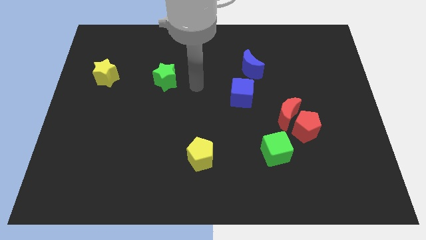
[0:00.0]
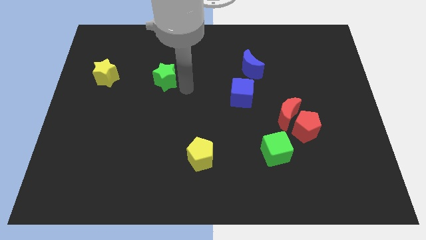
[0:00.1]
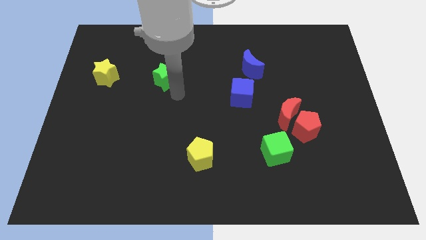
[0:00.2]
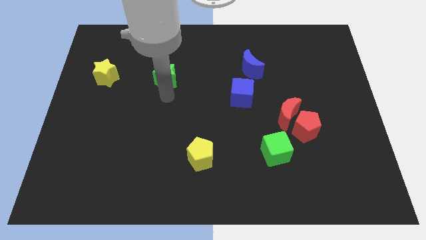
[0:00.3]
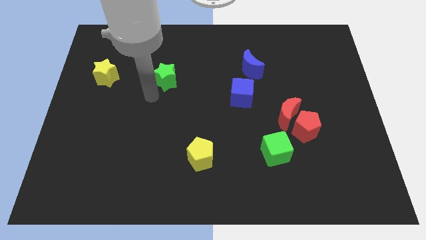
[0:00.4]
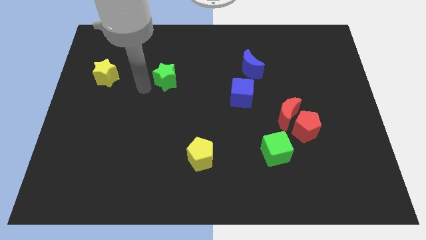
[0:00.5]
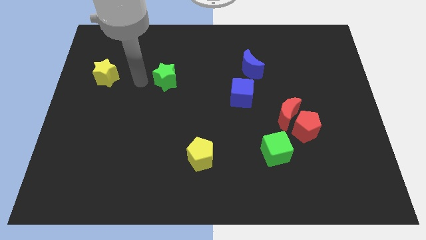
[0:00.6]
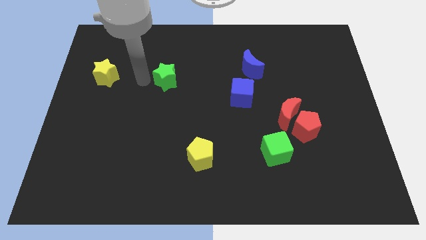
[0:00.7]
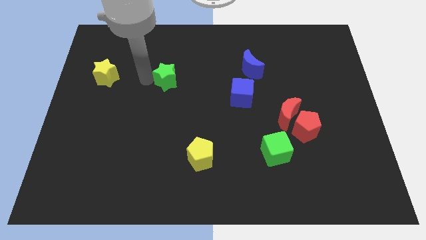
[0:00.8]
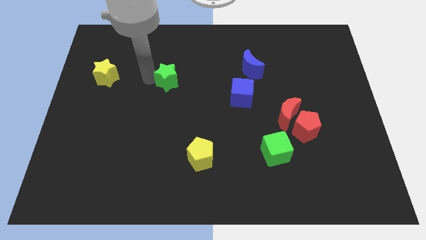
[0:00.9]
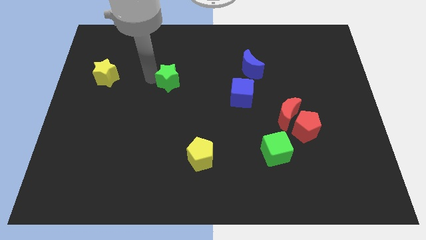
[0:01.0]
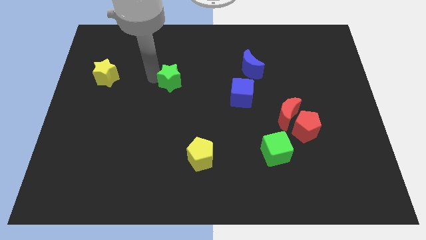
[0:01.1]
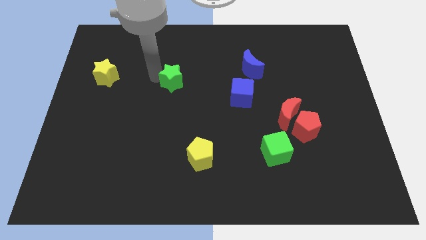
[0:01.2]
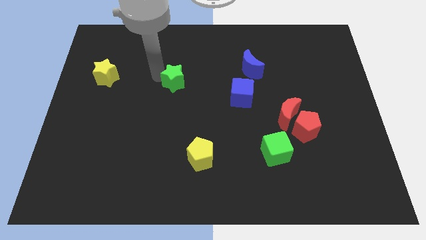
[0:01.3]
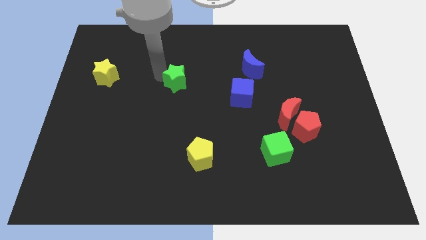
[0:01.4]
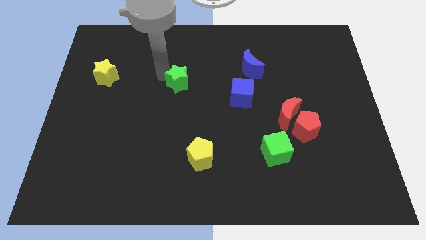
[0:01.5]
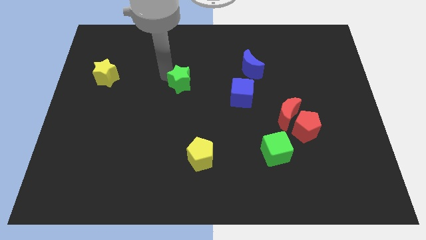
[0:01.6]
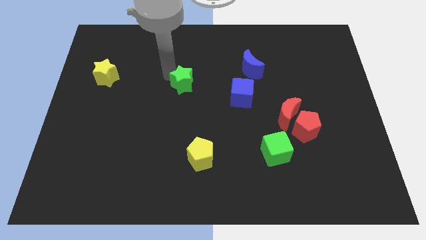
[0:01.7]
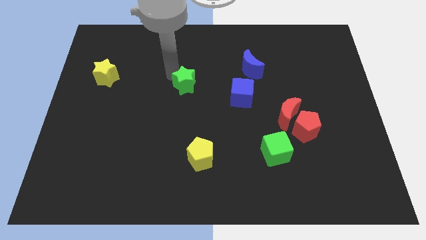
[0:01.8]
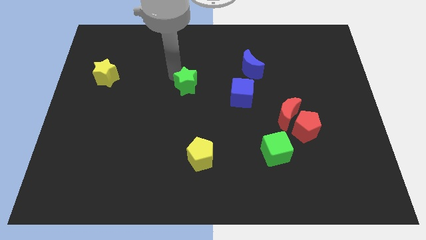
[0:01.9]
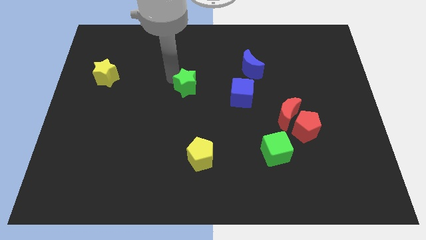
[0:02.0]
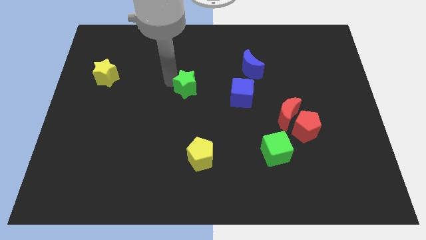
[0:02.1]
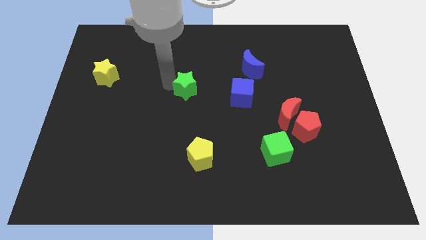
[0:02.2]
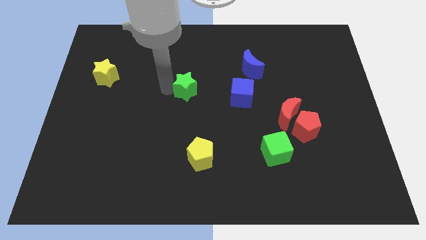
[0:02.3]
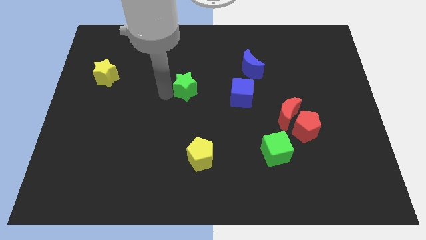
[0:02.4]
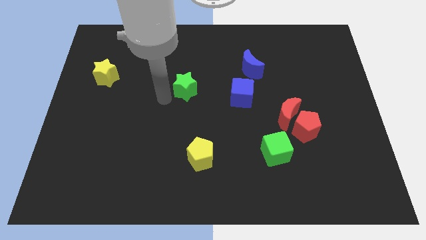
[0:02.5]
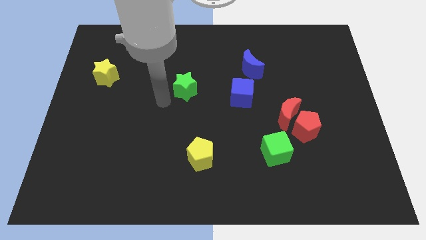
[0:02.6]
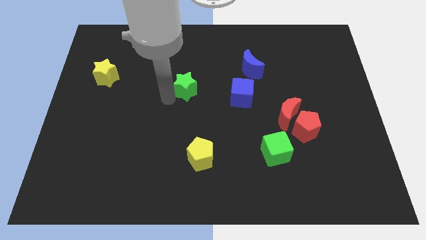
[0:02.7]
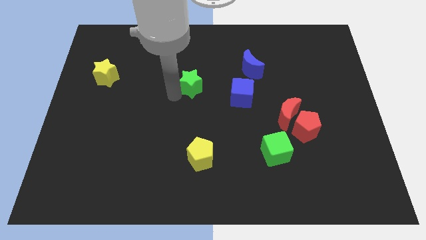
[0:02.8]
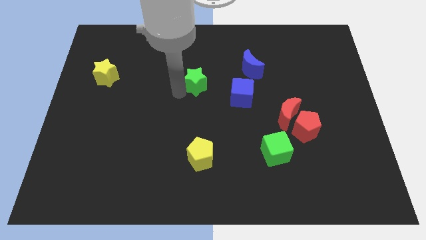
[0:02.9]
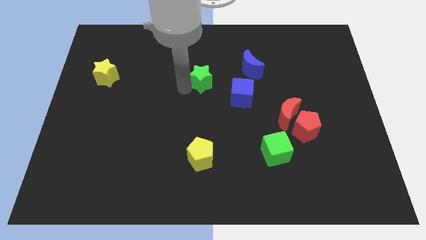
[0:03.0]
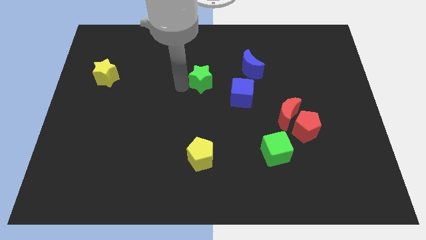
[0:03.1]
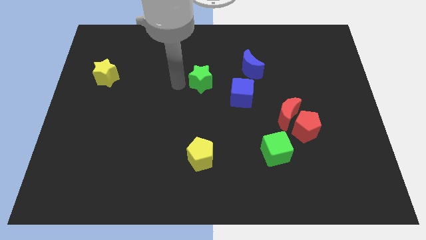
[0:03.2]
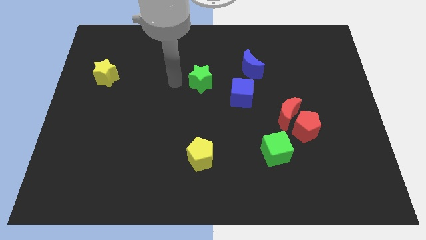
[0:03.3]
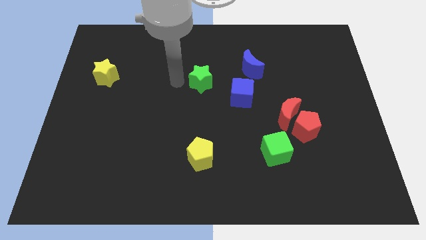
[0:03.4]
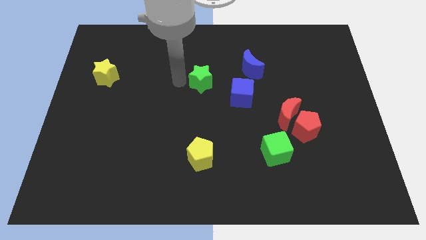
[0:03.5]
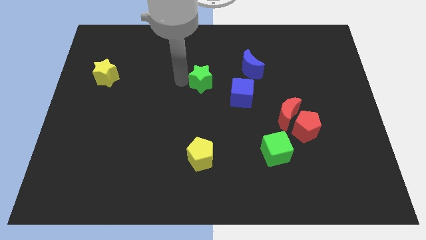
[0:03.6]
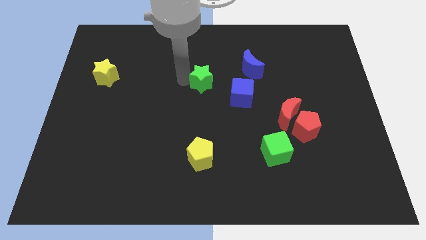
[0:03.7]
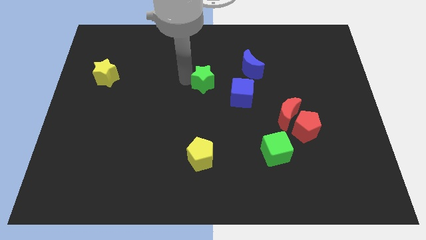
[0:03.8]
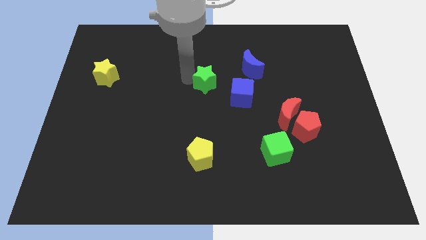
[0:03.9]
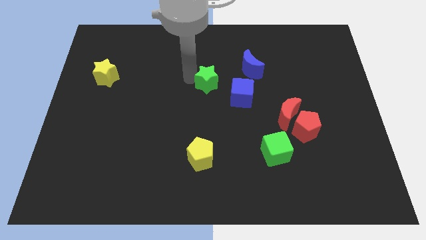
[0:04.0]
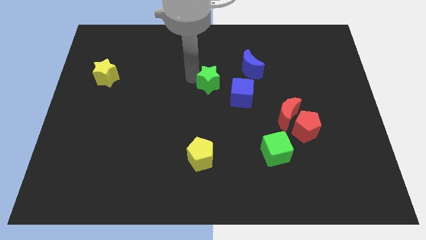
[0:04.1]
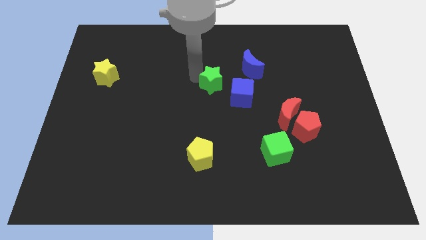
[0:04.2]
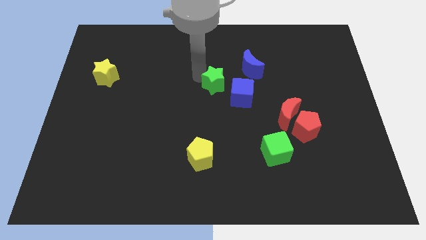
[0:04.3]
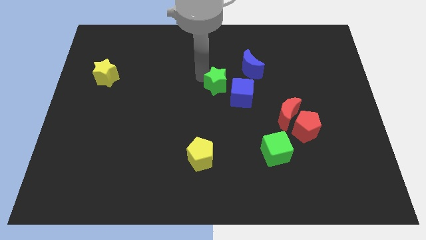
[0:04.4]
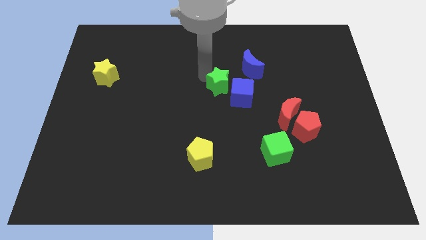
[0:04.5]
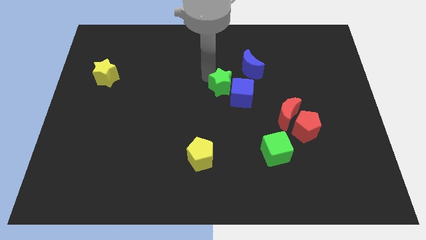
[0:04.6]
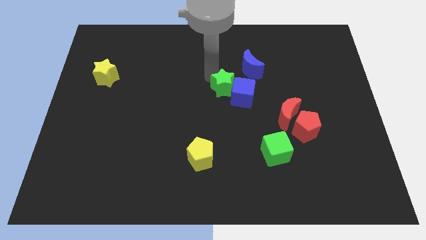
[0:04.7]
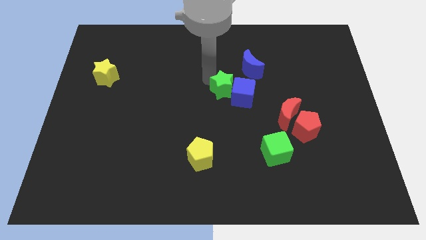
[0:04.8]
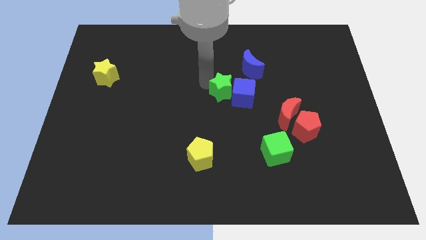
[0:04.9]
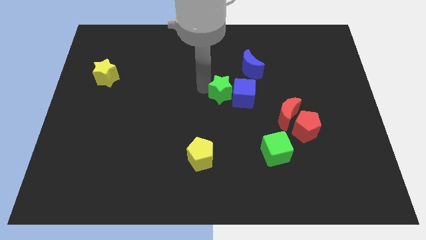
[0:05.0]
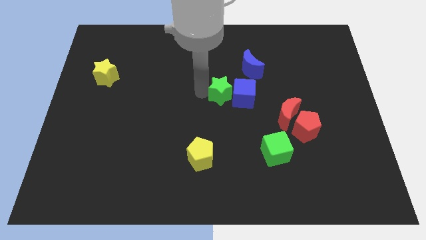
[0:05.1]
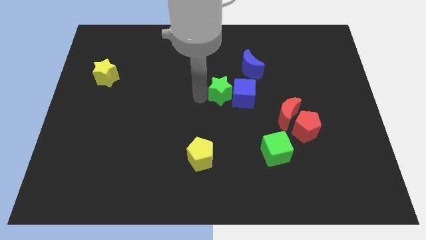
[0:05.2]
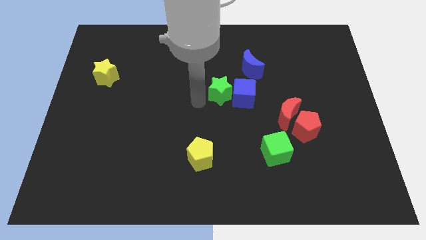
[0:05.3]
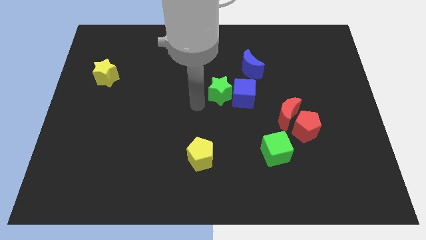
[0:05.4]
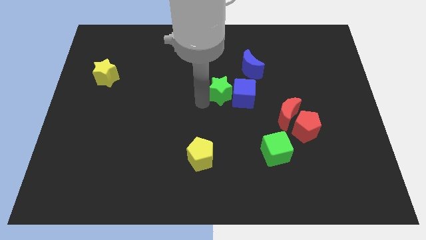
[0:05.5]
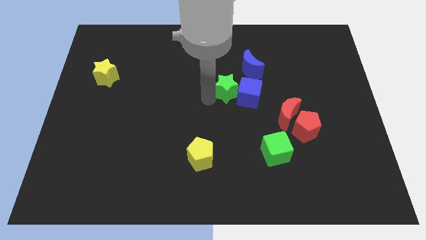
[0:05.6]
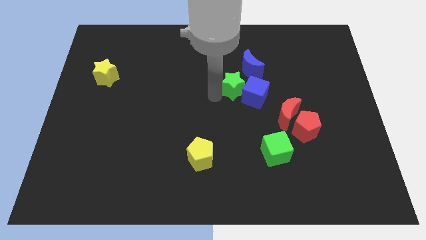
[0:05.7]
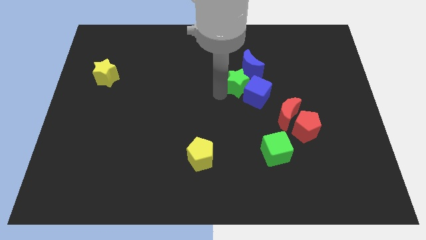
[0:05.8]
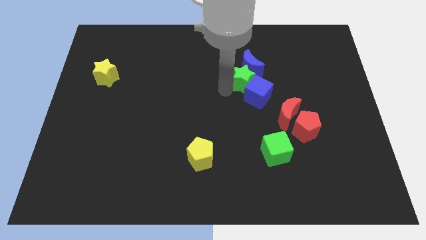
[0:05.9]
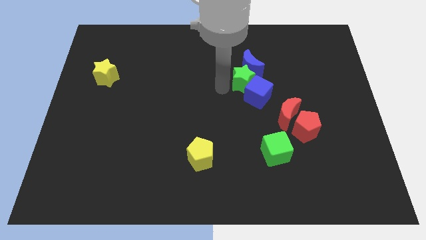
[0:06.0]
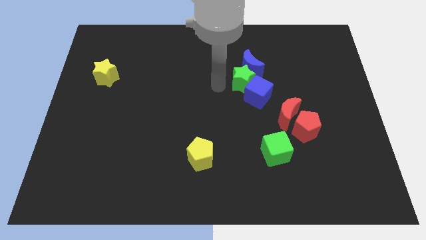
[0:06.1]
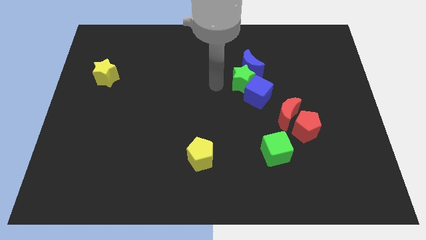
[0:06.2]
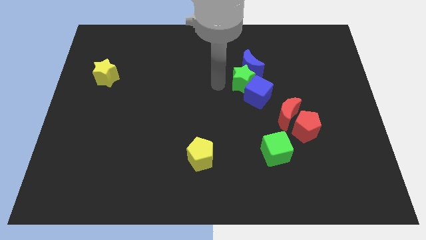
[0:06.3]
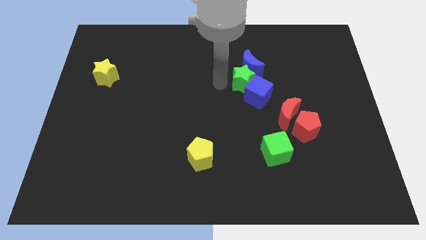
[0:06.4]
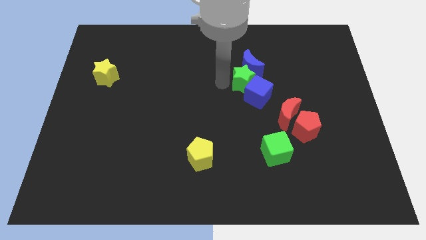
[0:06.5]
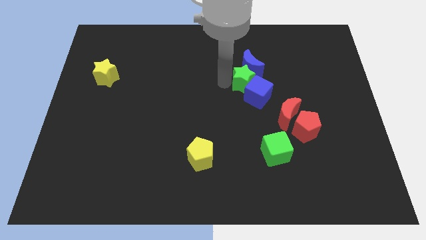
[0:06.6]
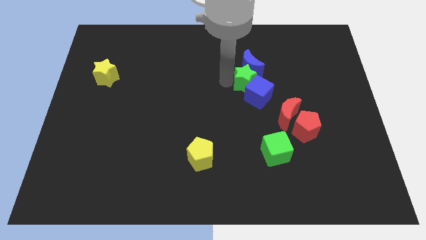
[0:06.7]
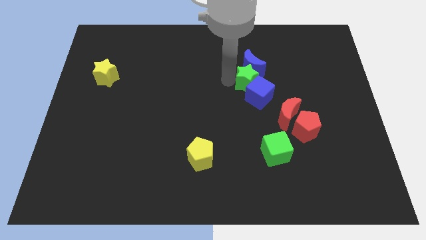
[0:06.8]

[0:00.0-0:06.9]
push the green star right

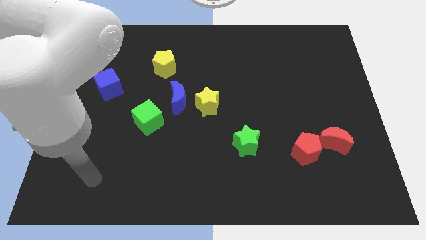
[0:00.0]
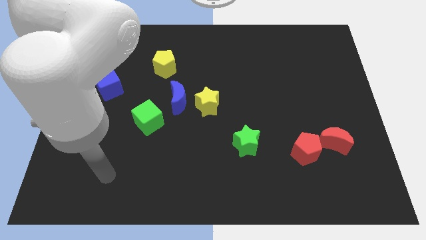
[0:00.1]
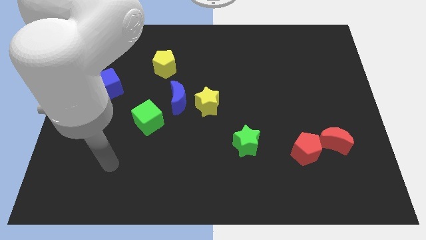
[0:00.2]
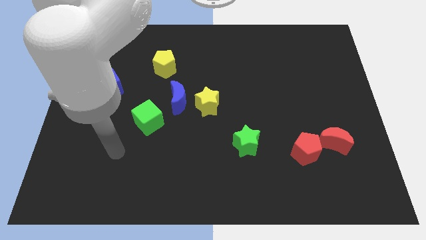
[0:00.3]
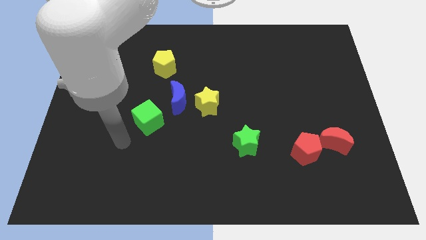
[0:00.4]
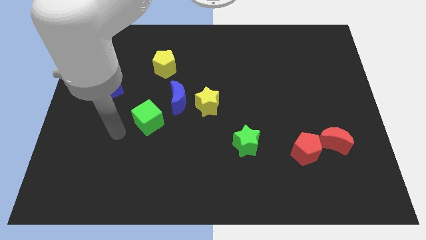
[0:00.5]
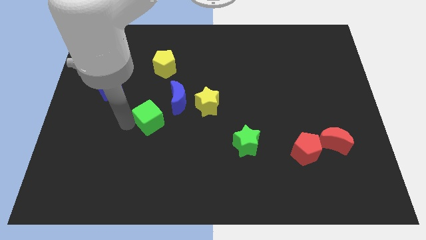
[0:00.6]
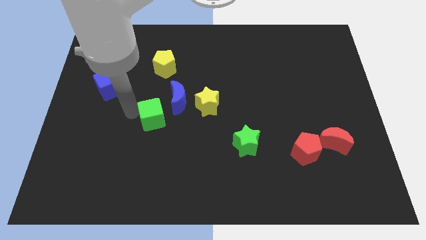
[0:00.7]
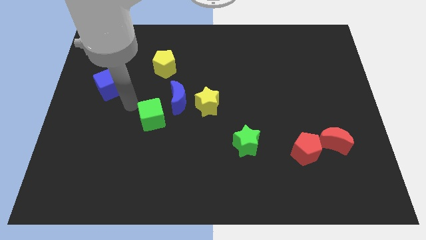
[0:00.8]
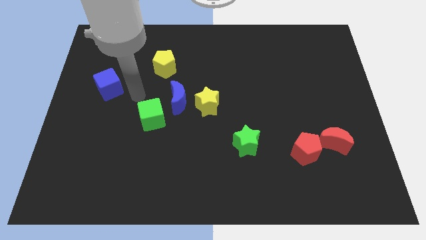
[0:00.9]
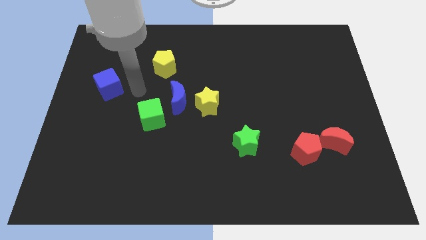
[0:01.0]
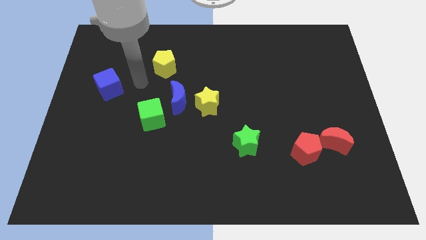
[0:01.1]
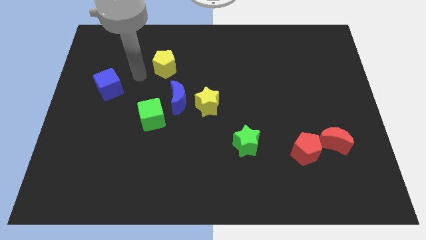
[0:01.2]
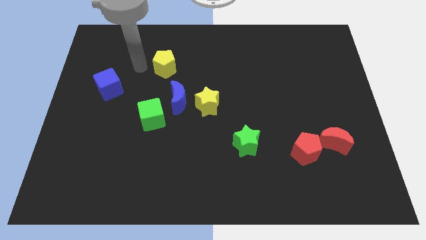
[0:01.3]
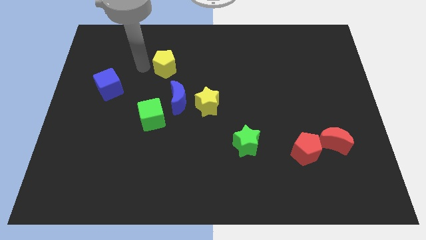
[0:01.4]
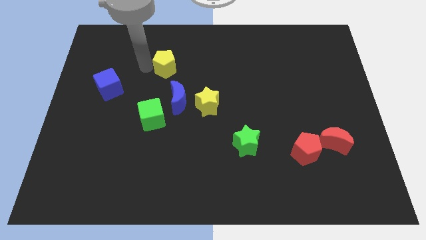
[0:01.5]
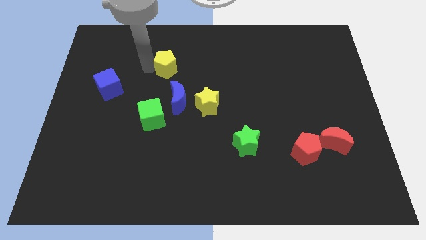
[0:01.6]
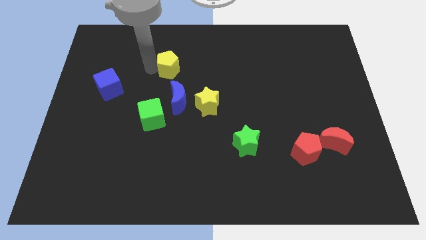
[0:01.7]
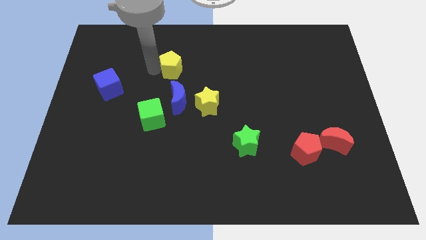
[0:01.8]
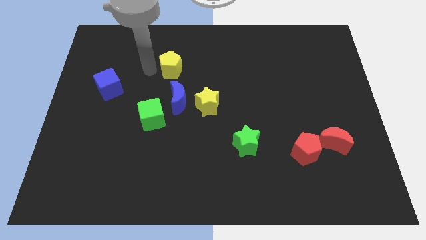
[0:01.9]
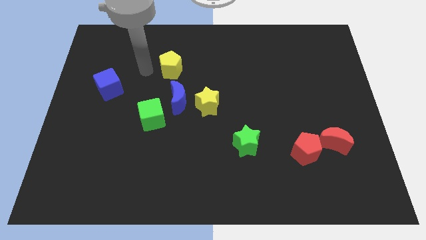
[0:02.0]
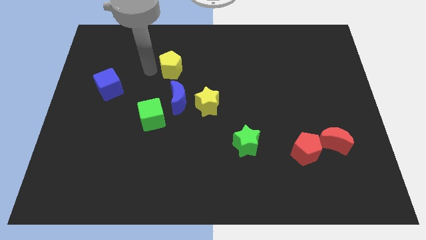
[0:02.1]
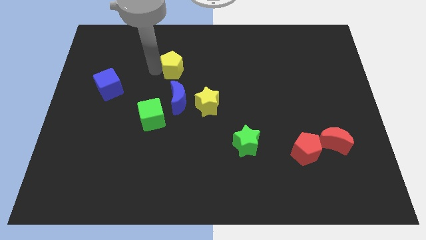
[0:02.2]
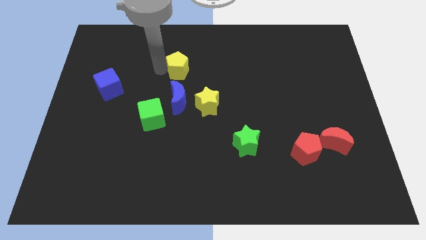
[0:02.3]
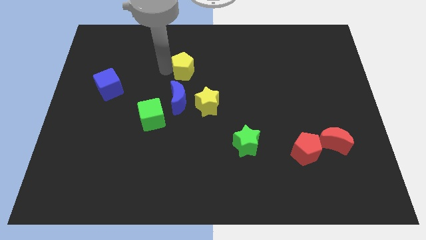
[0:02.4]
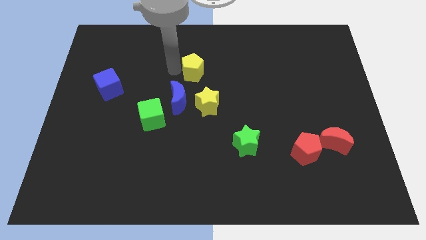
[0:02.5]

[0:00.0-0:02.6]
slide the yellow pentagon to the right a bit
